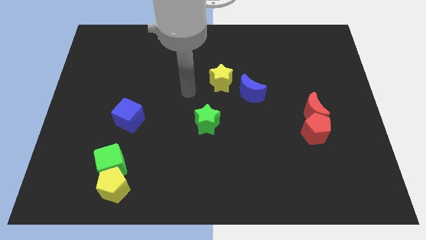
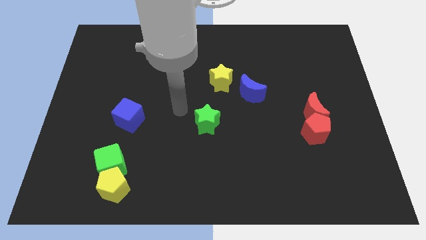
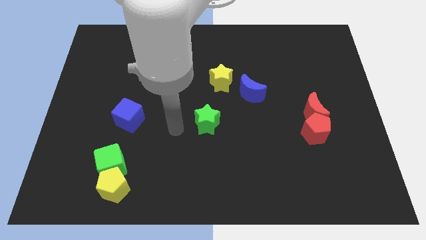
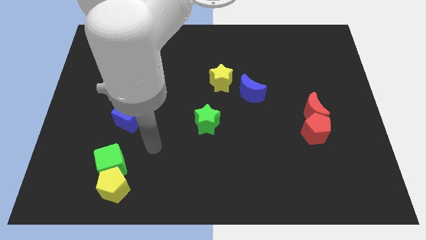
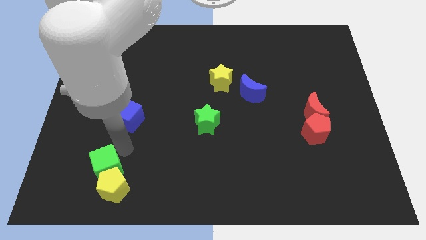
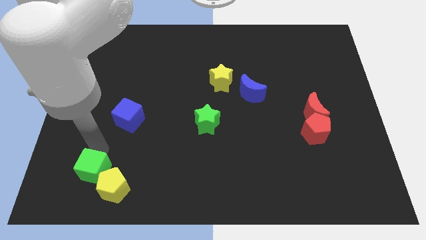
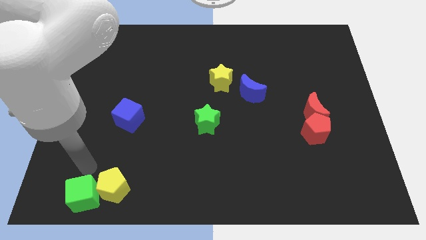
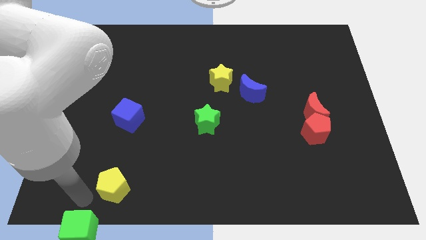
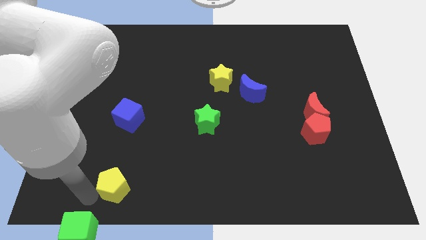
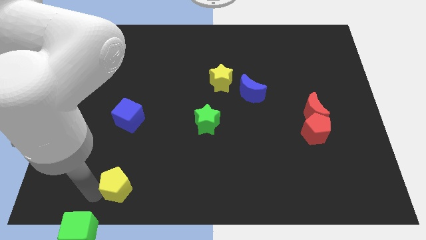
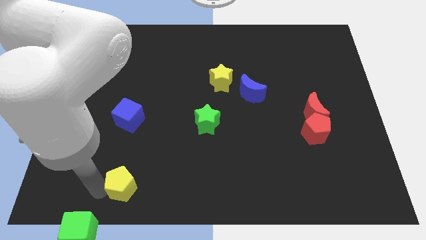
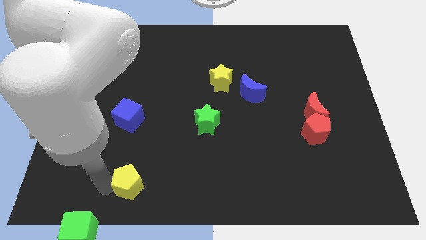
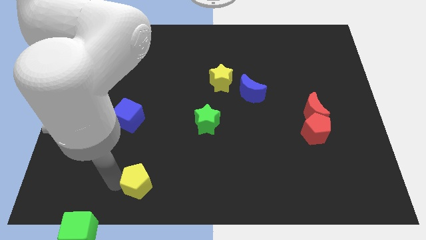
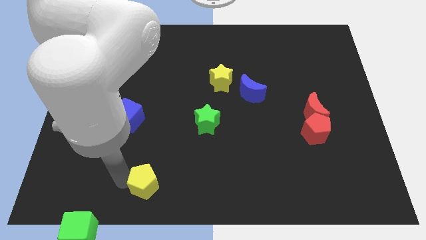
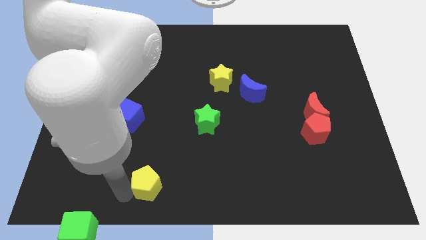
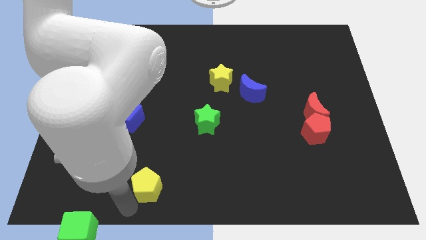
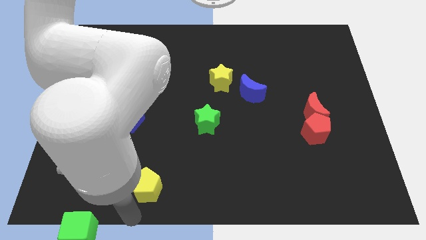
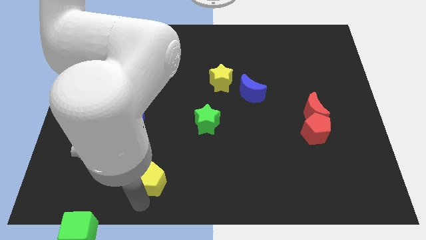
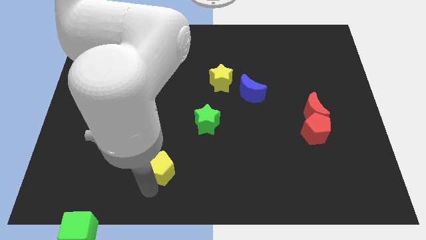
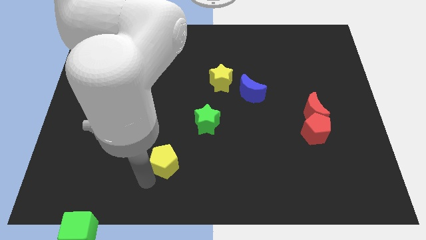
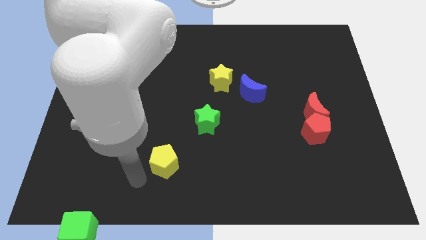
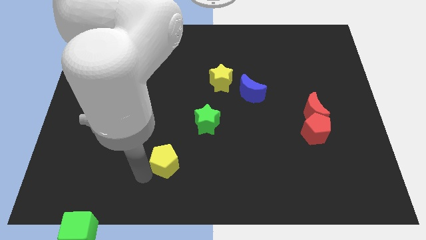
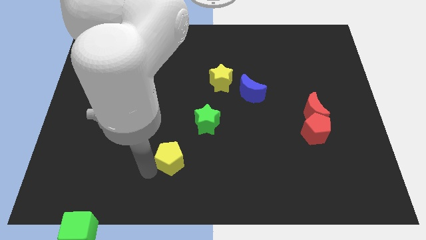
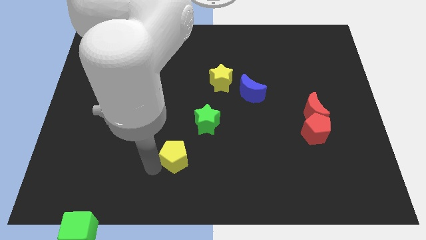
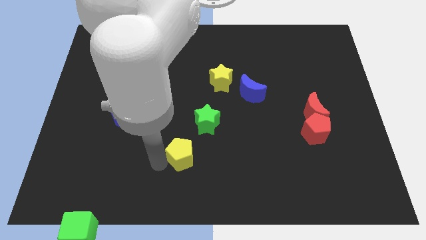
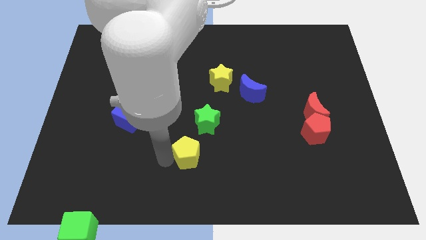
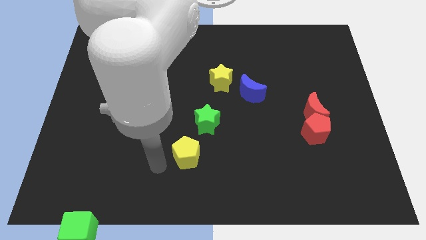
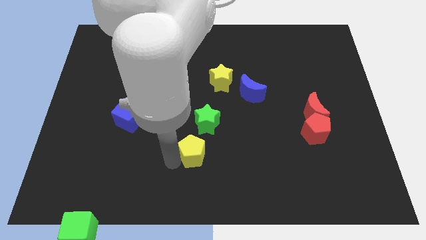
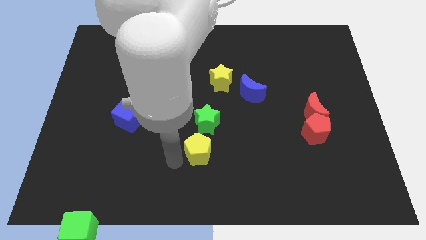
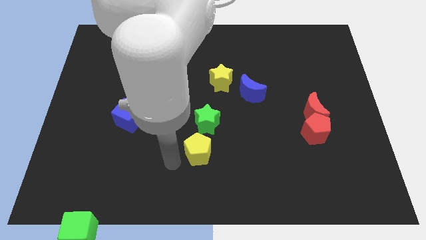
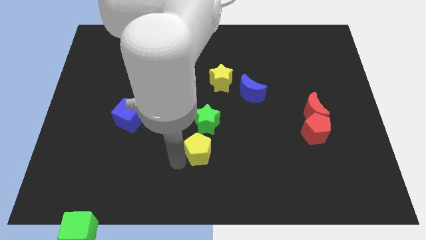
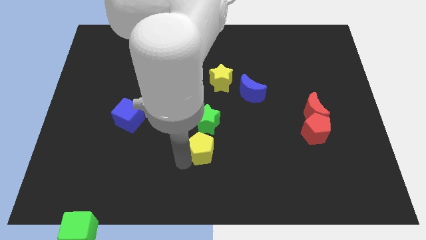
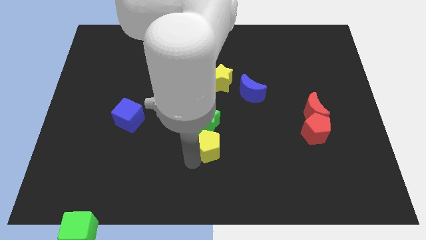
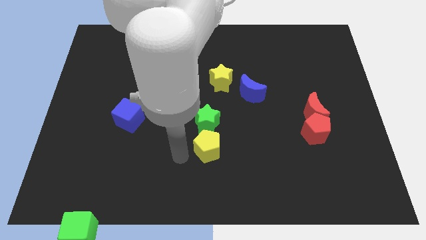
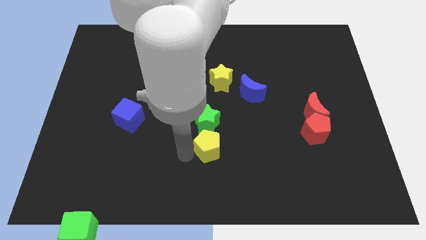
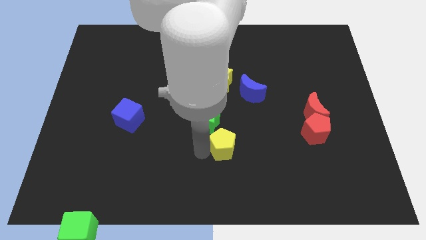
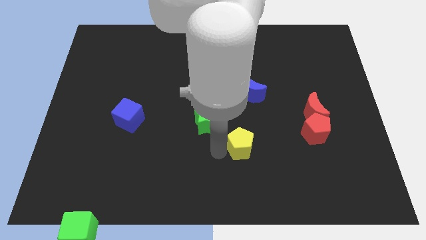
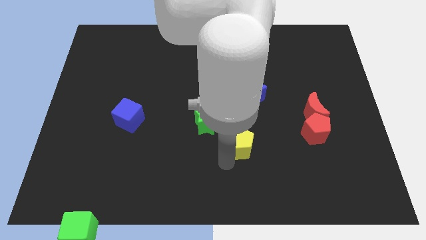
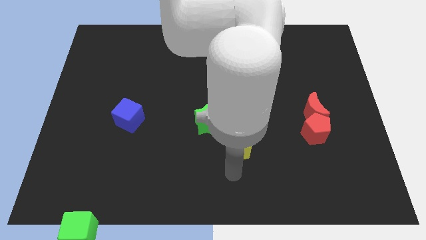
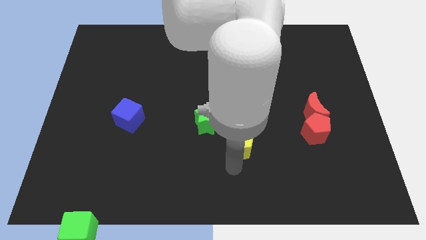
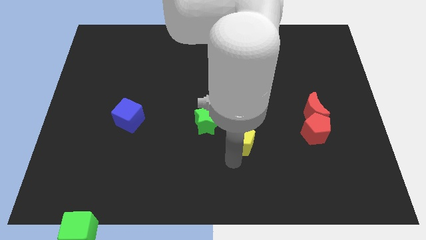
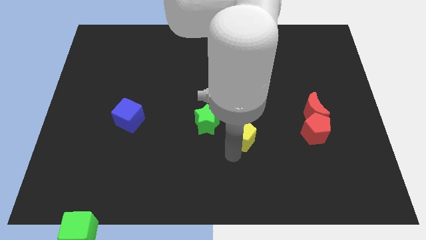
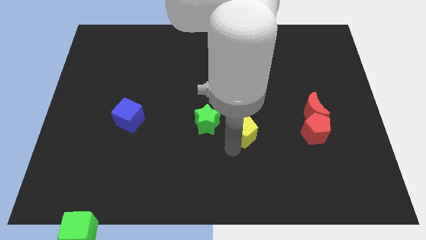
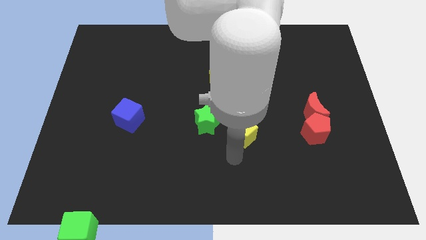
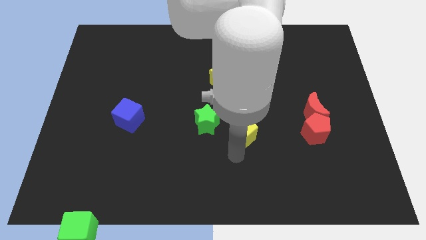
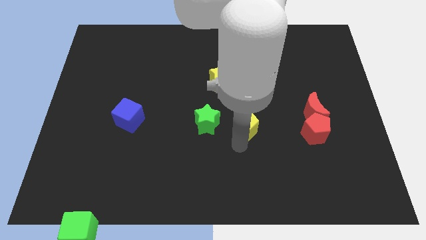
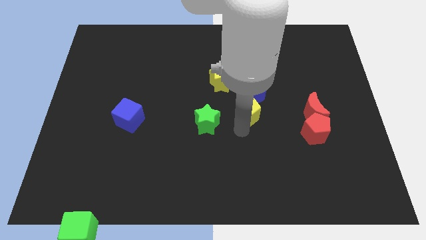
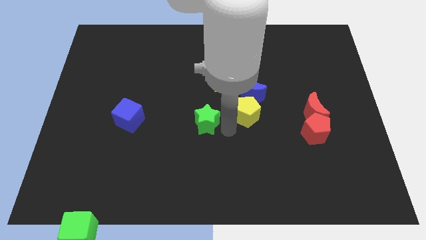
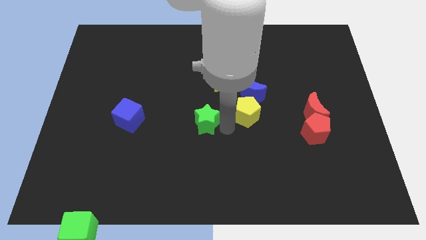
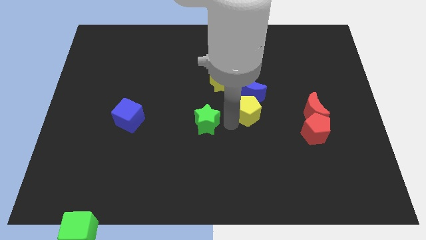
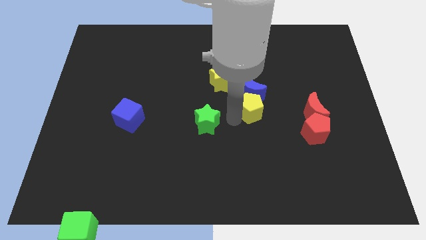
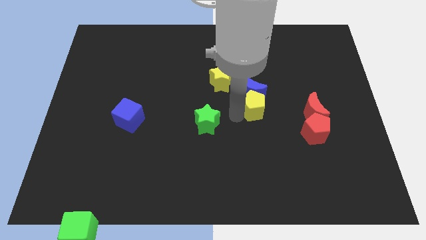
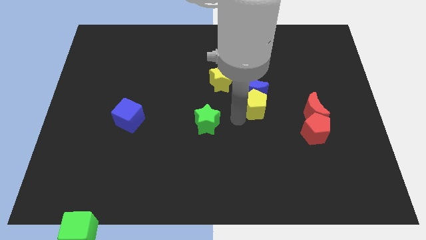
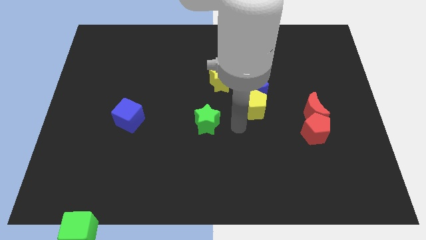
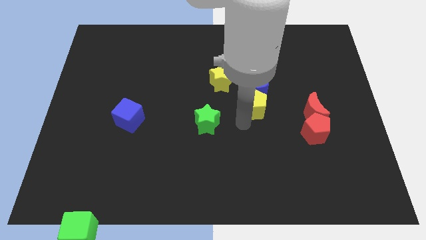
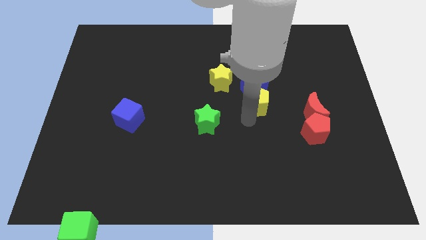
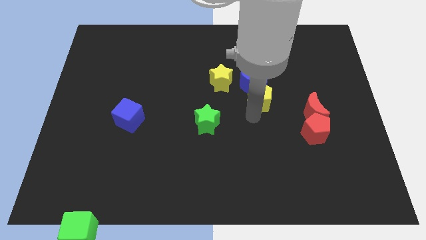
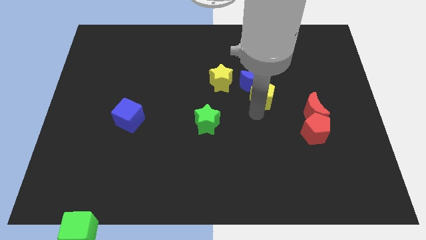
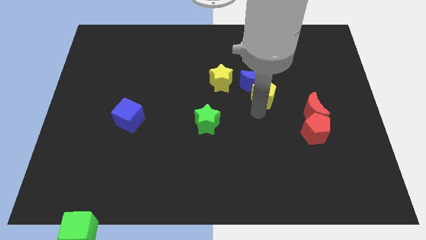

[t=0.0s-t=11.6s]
move the yellow pentagon right of the yellow star

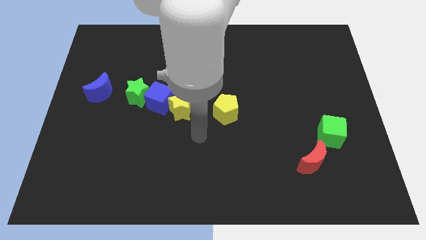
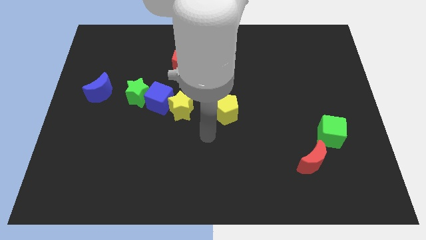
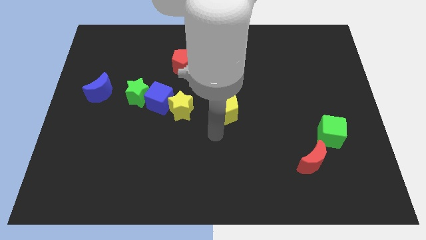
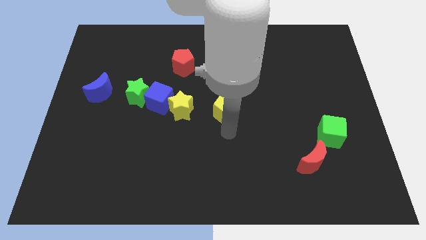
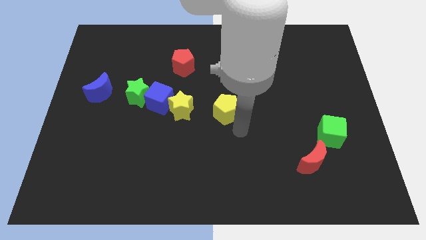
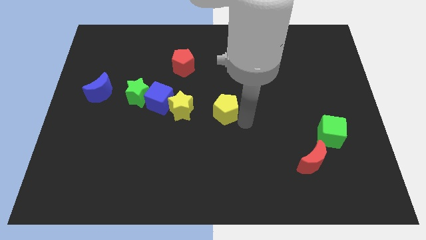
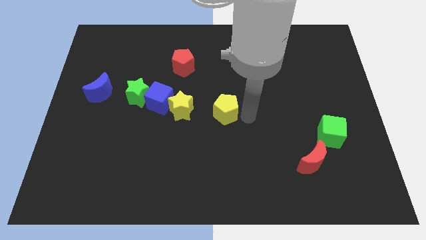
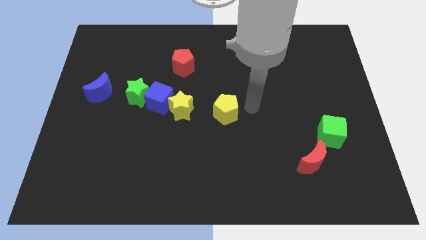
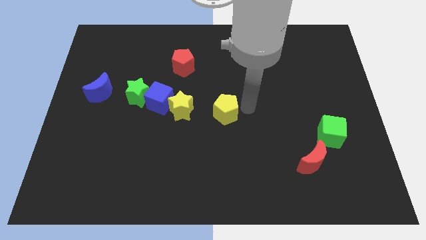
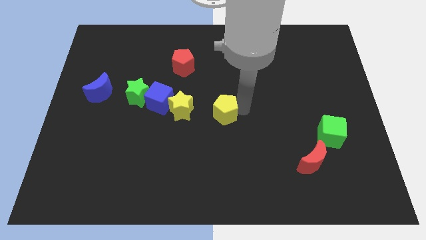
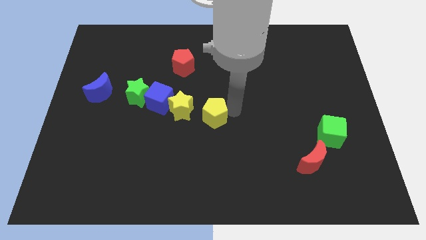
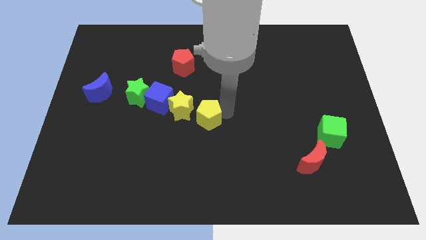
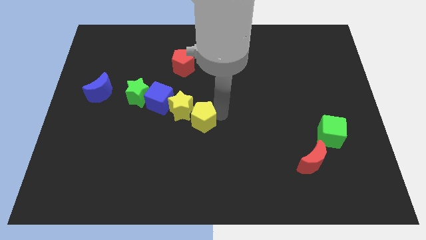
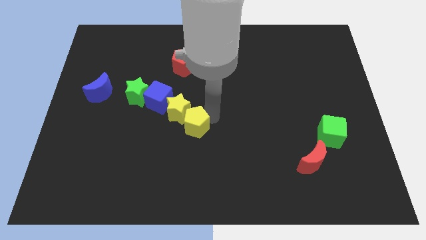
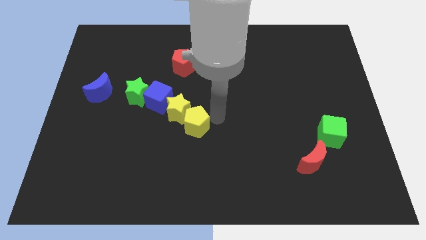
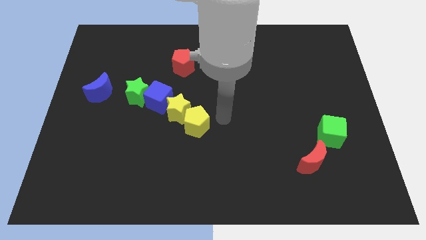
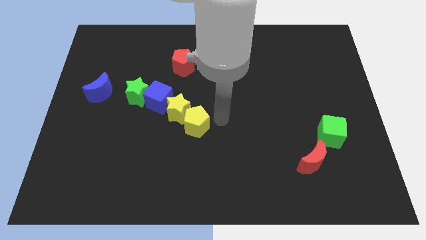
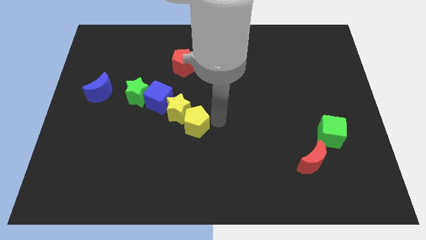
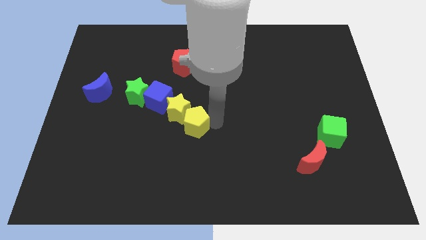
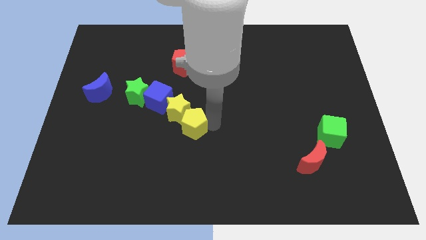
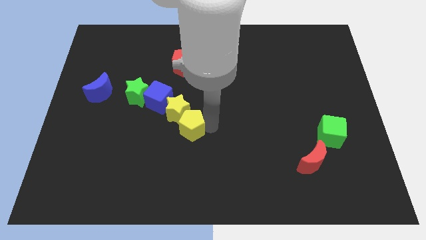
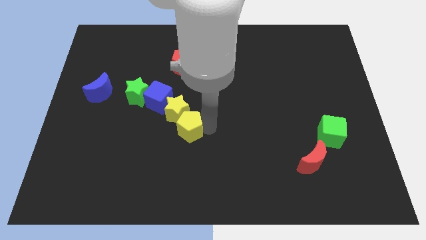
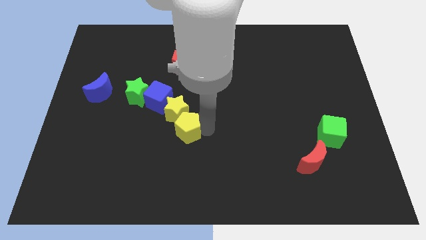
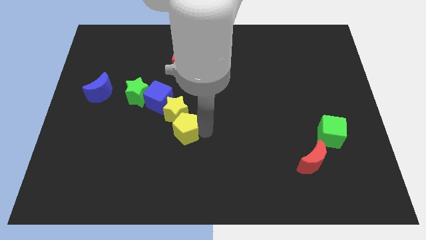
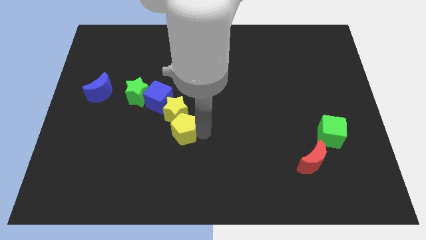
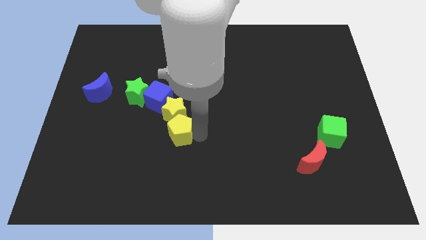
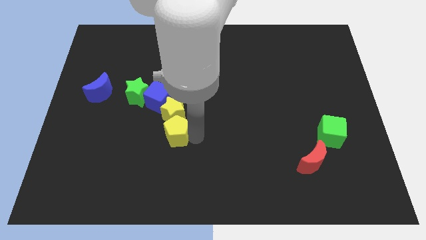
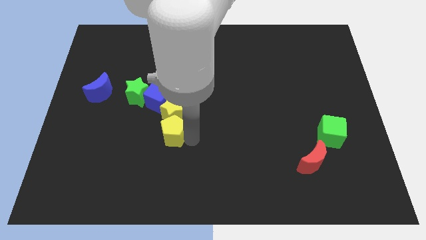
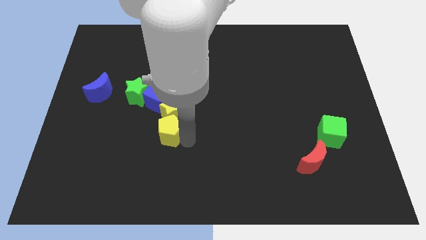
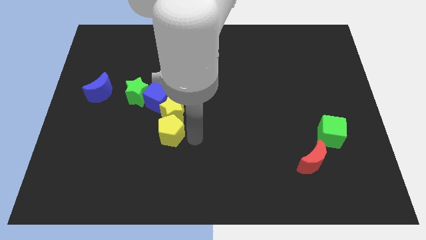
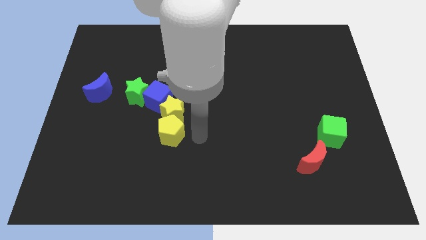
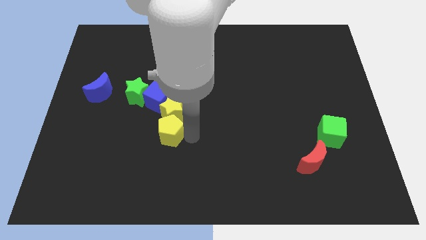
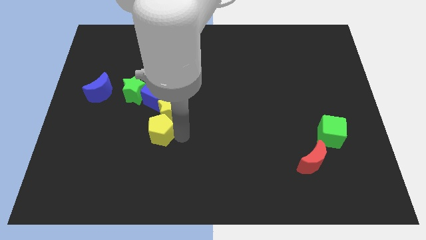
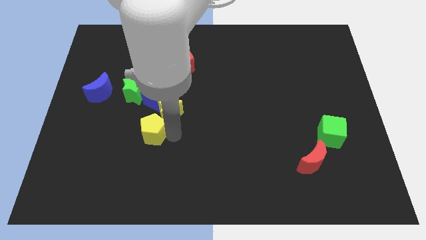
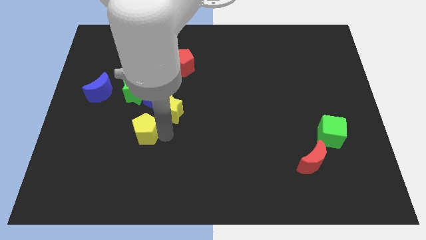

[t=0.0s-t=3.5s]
slide the yellow pentagon to the bottom of the green star
